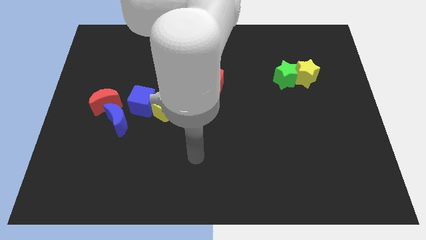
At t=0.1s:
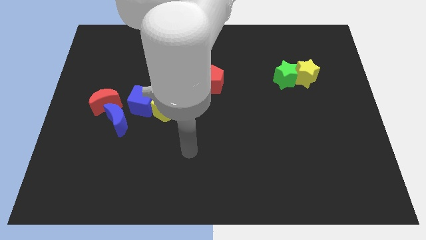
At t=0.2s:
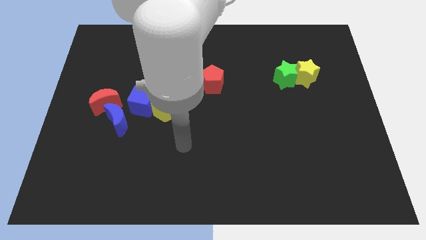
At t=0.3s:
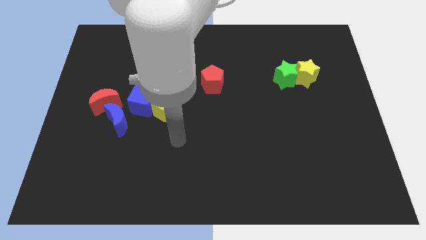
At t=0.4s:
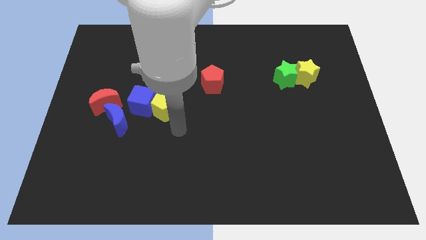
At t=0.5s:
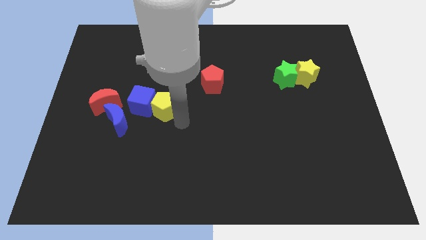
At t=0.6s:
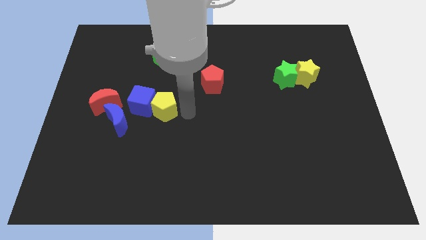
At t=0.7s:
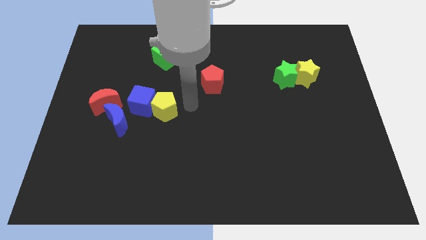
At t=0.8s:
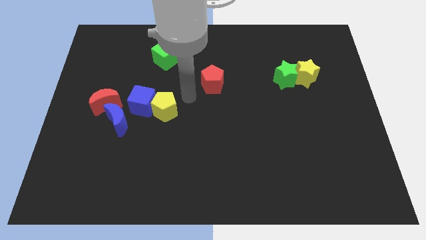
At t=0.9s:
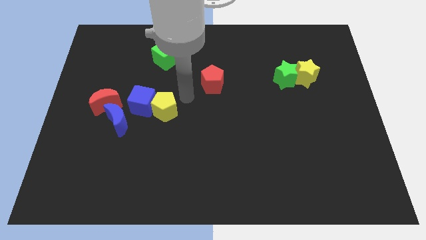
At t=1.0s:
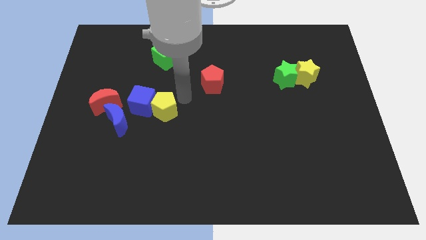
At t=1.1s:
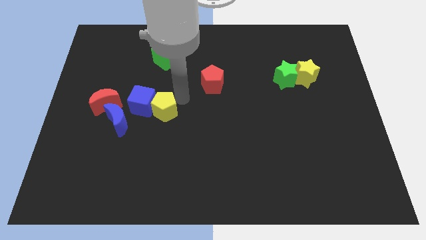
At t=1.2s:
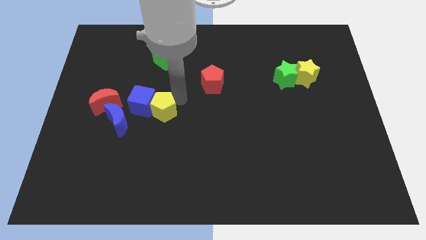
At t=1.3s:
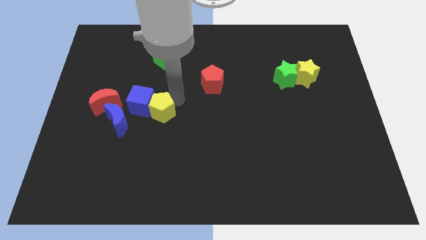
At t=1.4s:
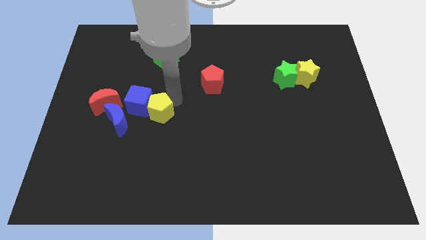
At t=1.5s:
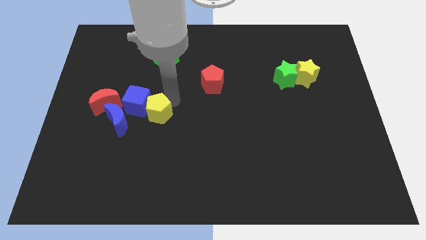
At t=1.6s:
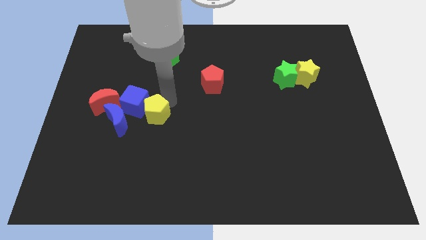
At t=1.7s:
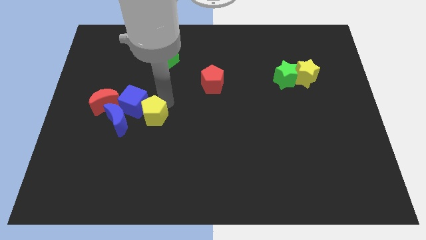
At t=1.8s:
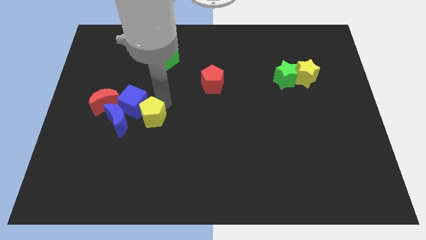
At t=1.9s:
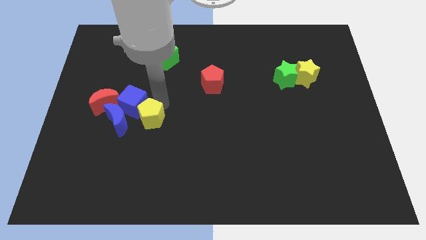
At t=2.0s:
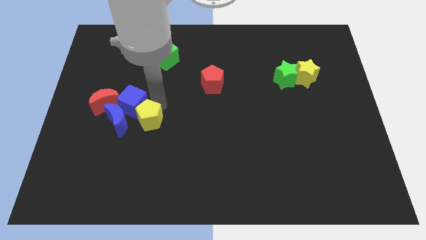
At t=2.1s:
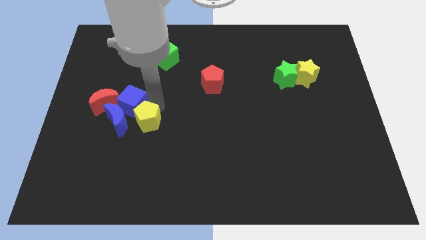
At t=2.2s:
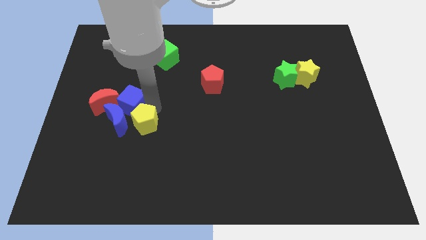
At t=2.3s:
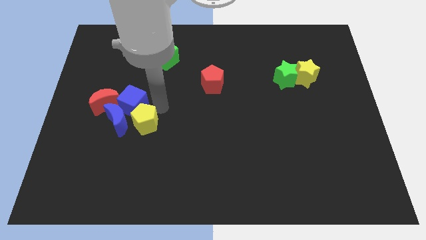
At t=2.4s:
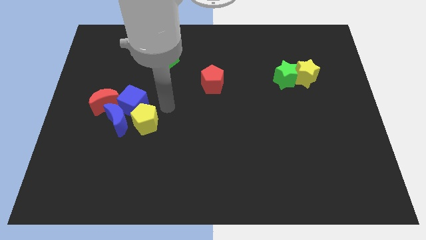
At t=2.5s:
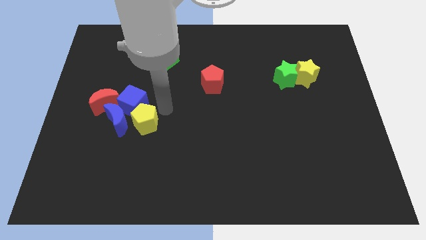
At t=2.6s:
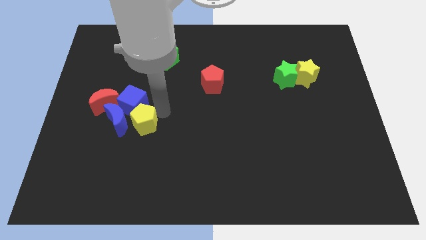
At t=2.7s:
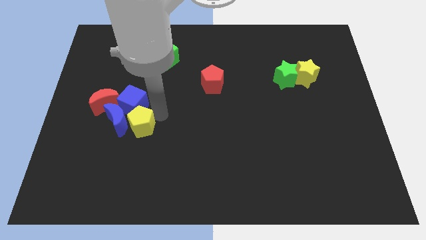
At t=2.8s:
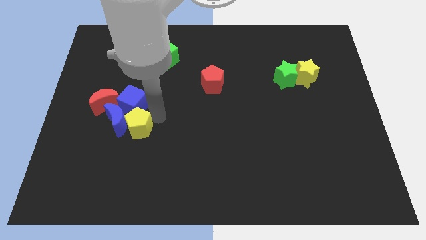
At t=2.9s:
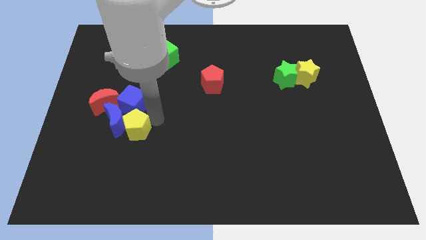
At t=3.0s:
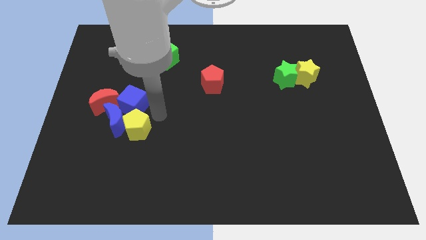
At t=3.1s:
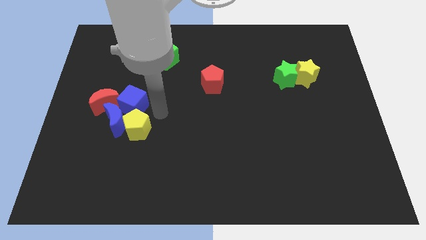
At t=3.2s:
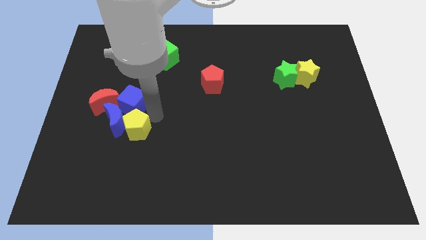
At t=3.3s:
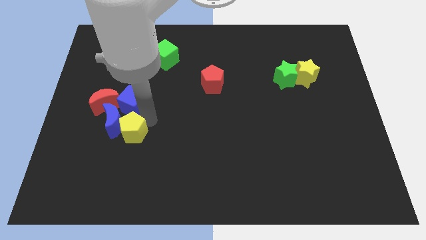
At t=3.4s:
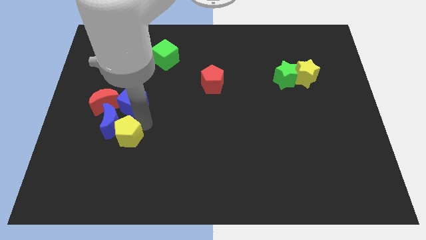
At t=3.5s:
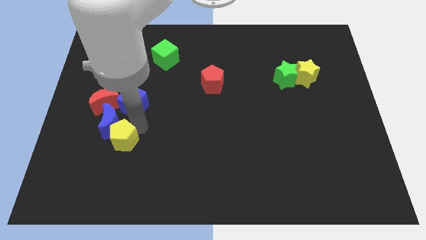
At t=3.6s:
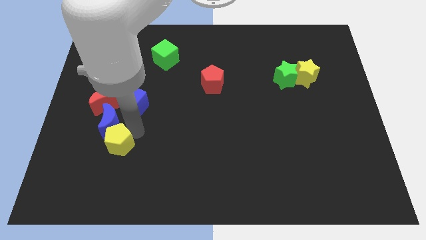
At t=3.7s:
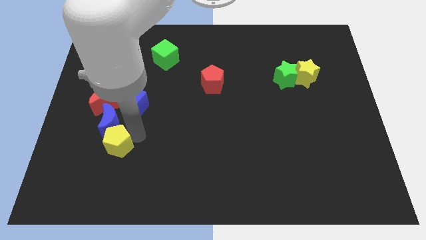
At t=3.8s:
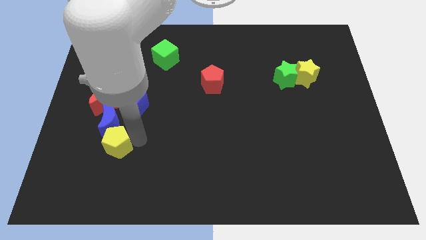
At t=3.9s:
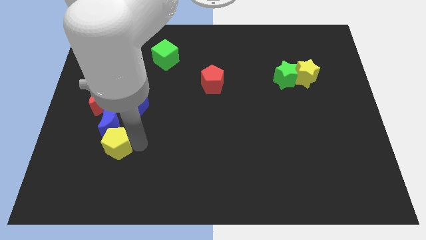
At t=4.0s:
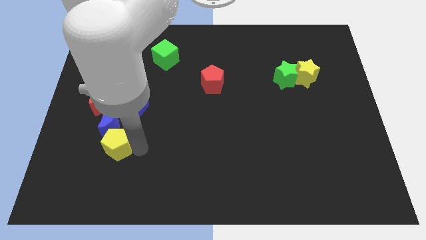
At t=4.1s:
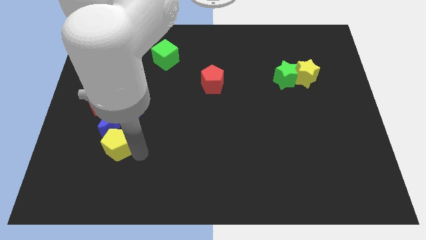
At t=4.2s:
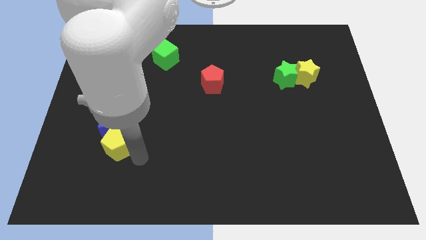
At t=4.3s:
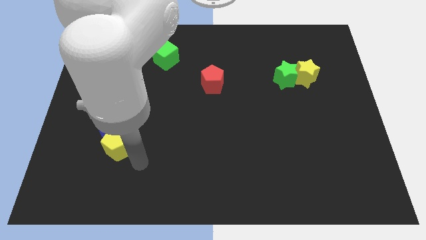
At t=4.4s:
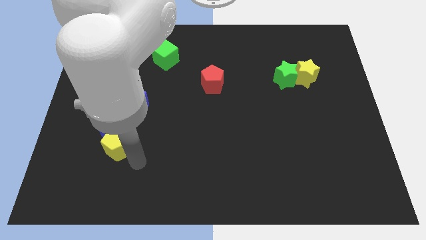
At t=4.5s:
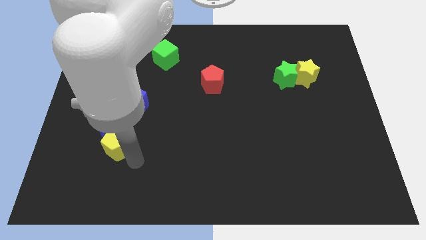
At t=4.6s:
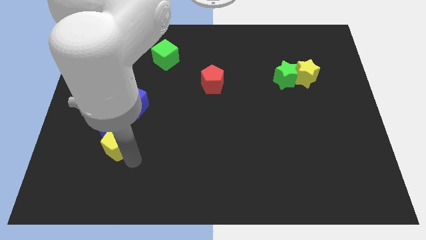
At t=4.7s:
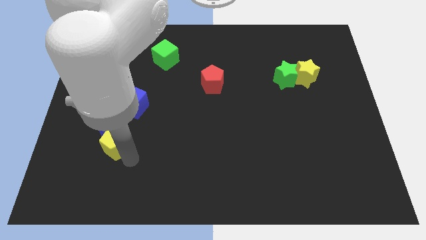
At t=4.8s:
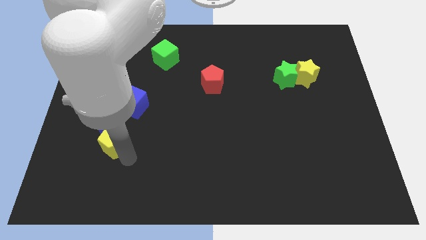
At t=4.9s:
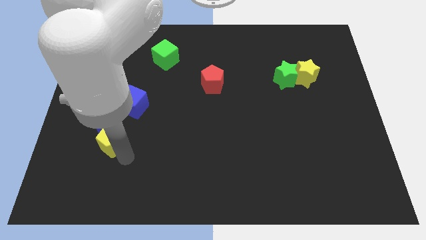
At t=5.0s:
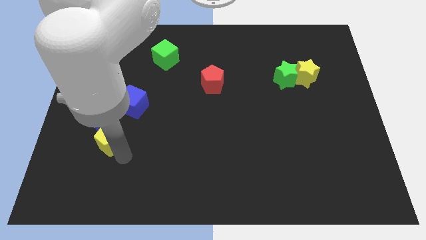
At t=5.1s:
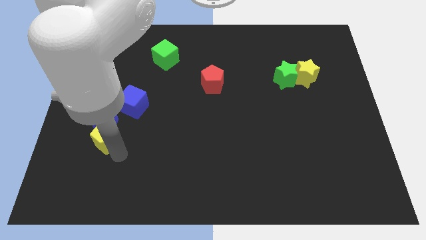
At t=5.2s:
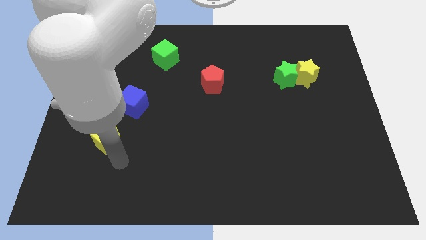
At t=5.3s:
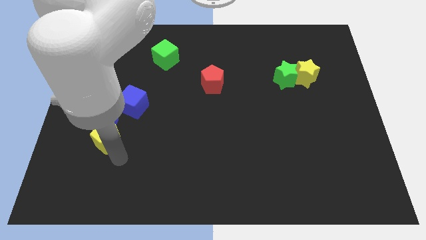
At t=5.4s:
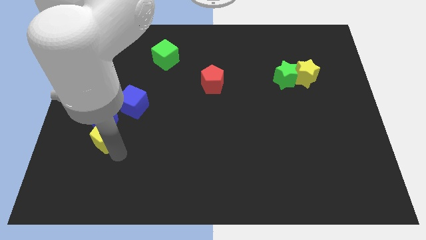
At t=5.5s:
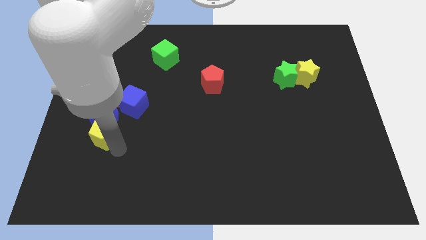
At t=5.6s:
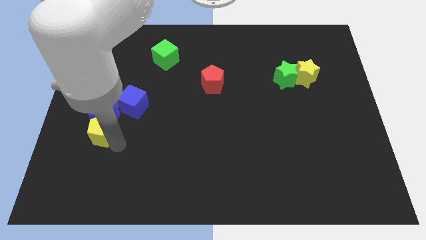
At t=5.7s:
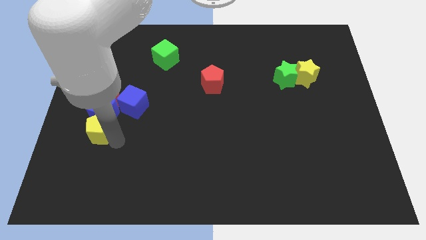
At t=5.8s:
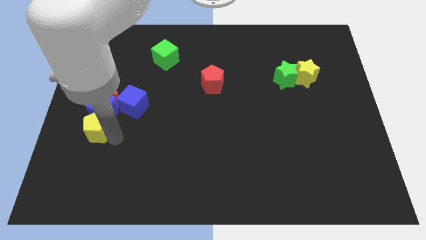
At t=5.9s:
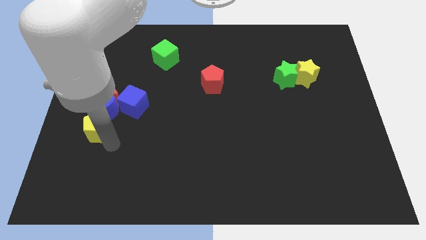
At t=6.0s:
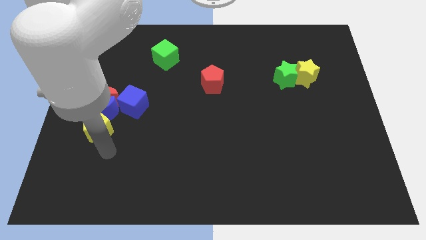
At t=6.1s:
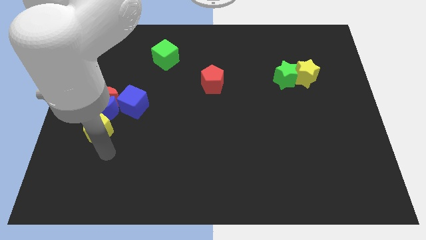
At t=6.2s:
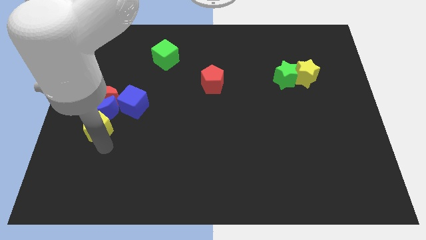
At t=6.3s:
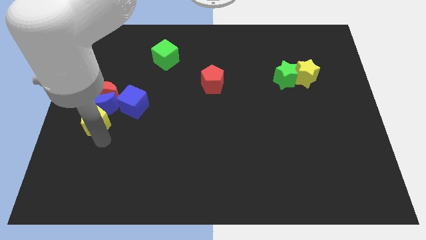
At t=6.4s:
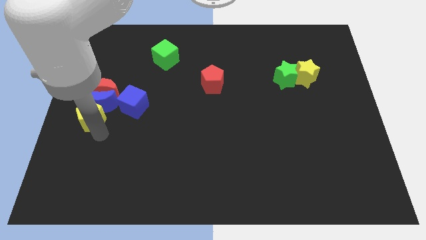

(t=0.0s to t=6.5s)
move the yellow pentagon left of the blue cube

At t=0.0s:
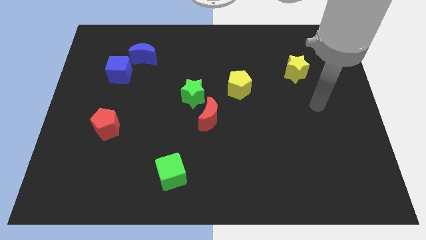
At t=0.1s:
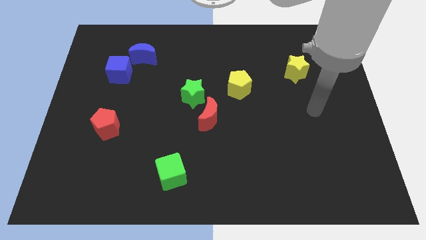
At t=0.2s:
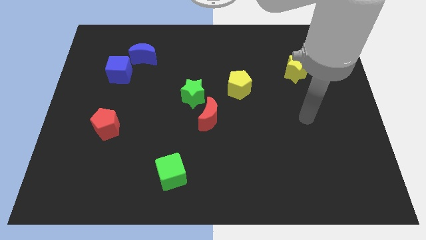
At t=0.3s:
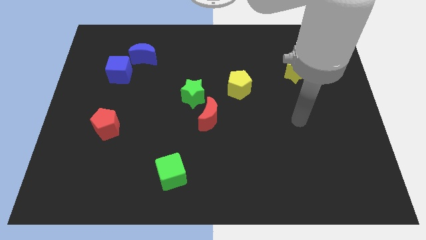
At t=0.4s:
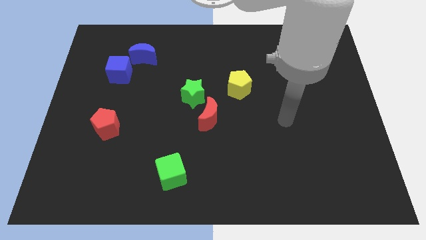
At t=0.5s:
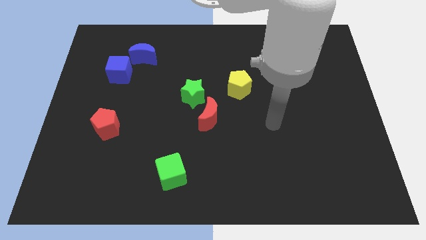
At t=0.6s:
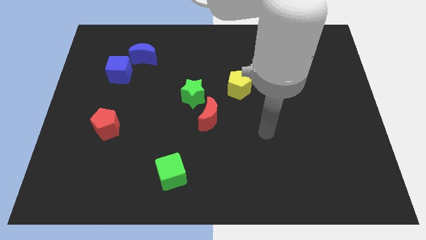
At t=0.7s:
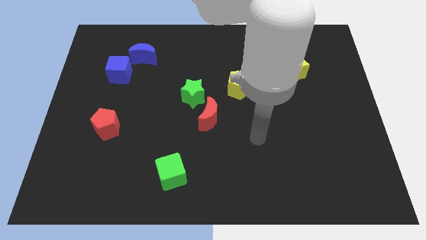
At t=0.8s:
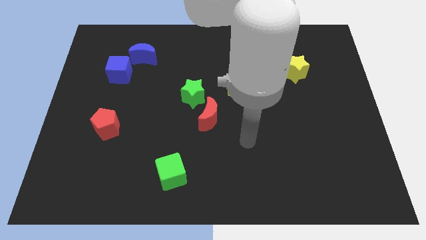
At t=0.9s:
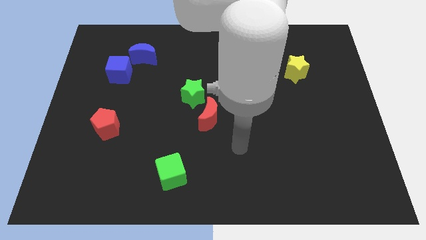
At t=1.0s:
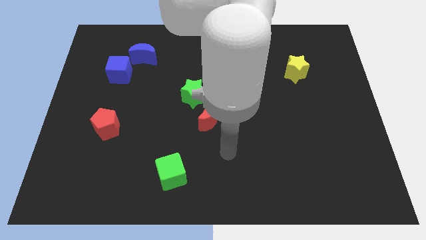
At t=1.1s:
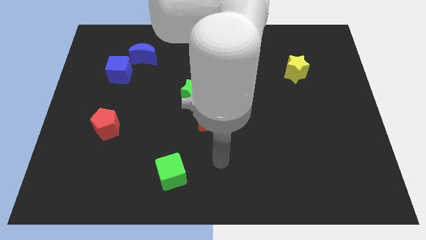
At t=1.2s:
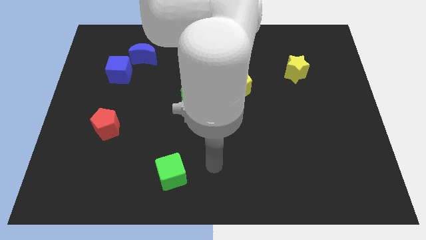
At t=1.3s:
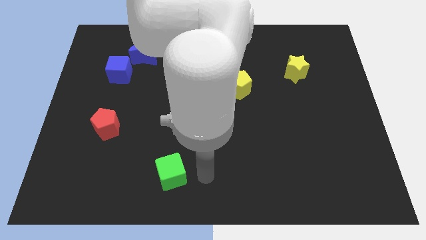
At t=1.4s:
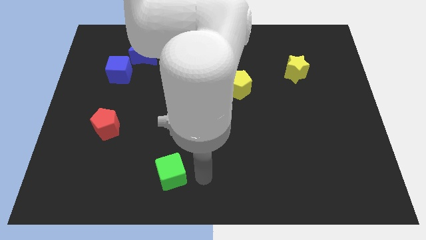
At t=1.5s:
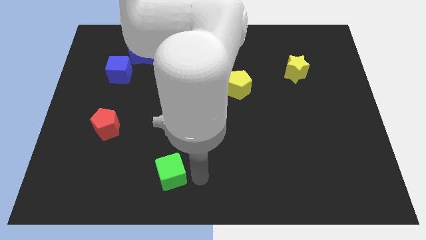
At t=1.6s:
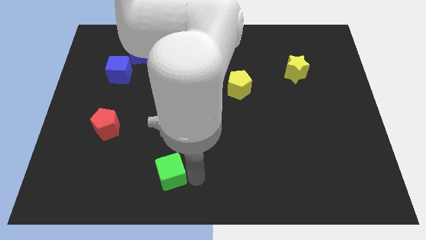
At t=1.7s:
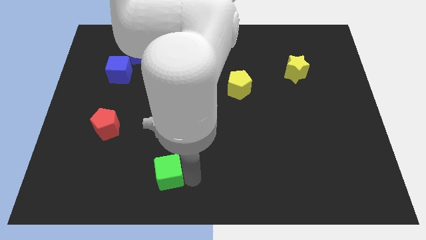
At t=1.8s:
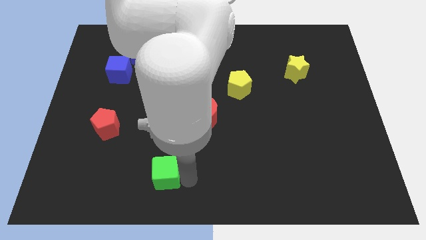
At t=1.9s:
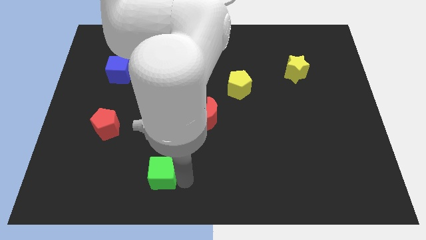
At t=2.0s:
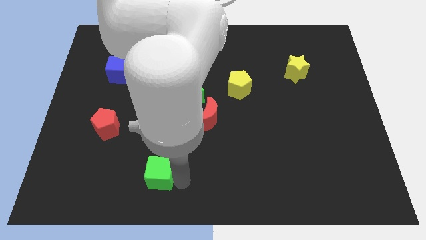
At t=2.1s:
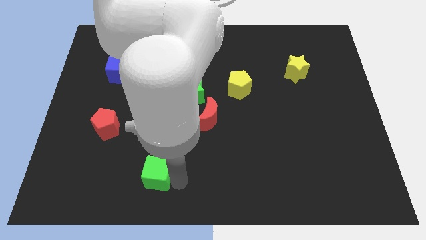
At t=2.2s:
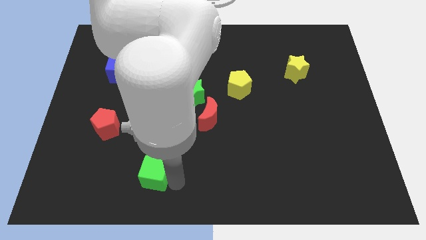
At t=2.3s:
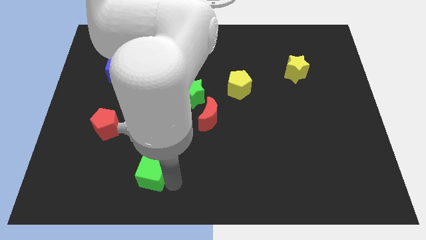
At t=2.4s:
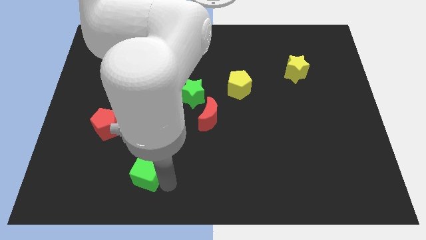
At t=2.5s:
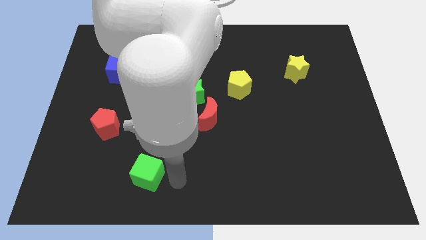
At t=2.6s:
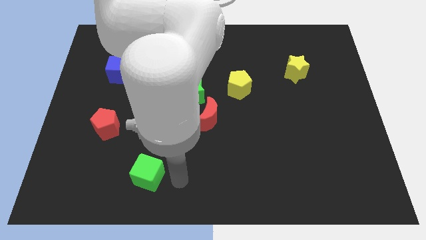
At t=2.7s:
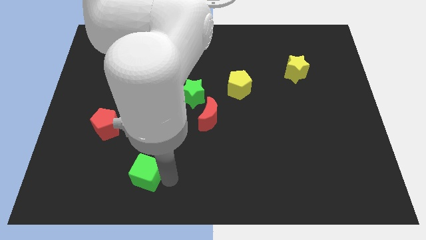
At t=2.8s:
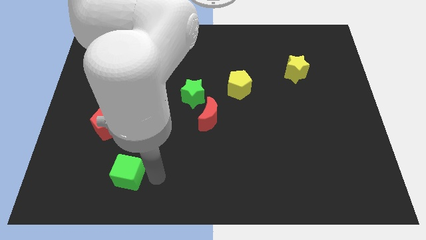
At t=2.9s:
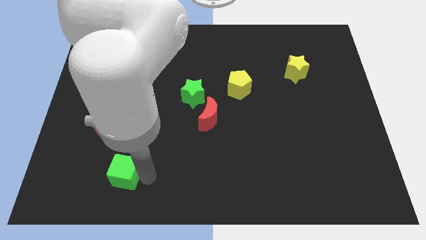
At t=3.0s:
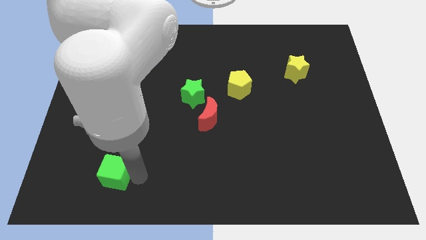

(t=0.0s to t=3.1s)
put the green cube below the red pentagon
